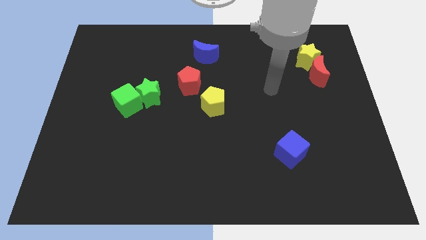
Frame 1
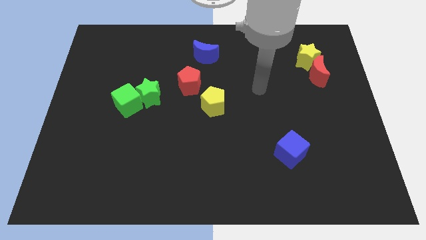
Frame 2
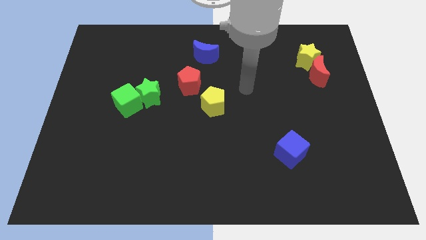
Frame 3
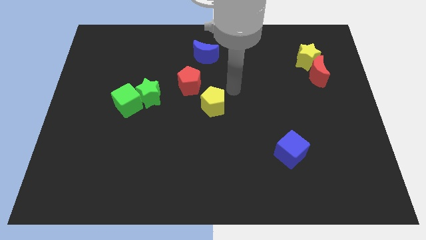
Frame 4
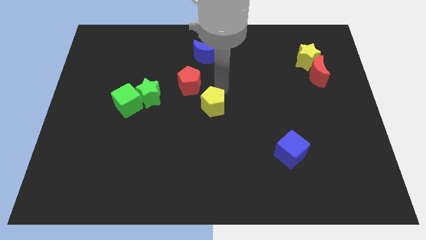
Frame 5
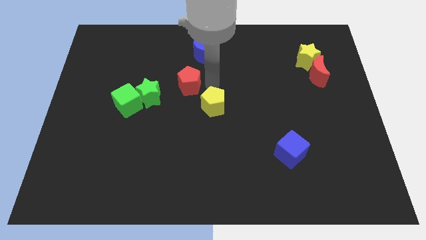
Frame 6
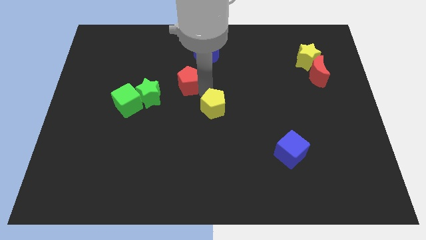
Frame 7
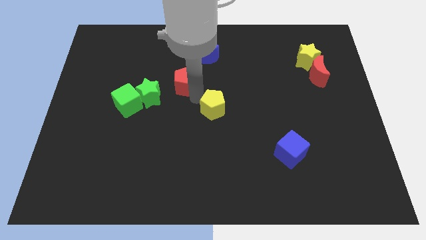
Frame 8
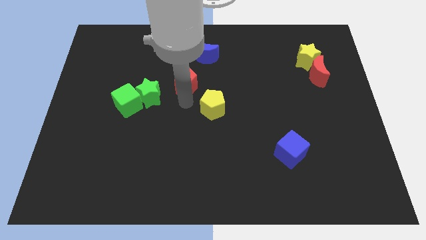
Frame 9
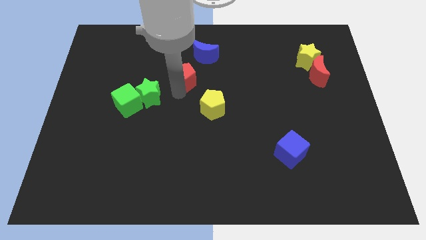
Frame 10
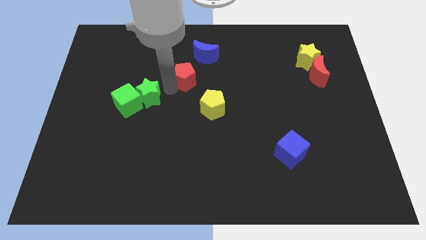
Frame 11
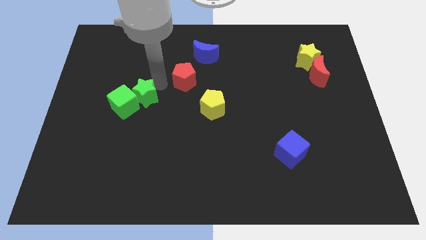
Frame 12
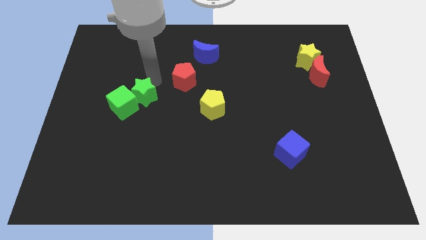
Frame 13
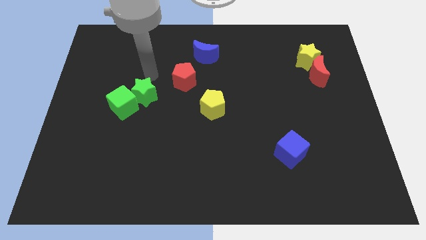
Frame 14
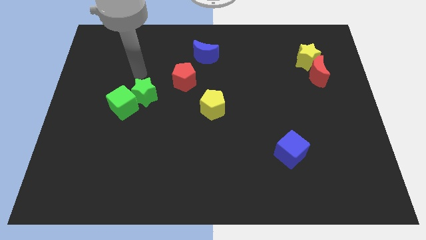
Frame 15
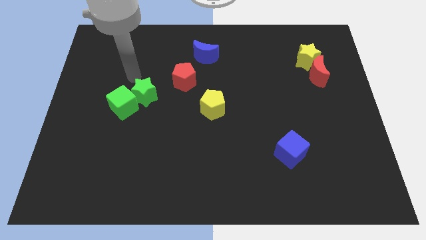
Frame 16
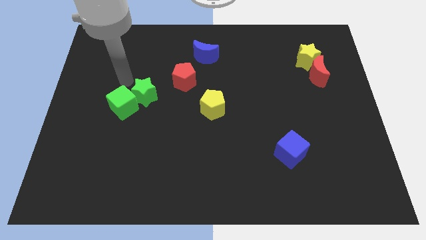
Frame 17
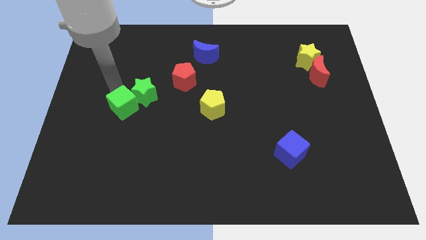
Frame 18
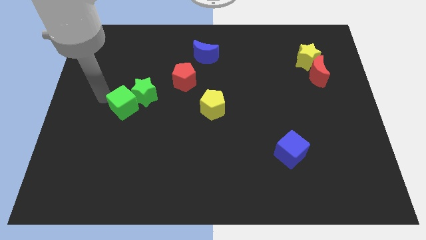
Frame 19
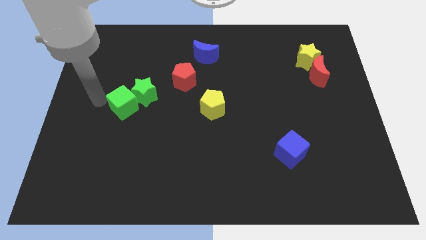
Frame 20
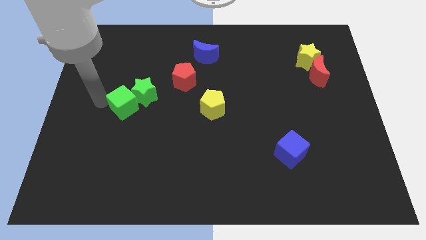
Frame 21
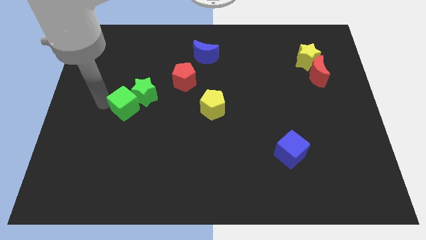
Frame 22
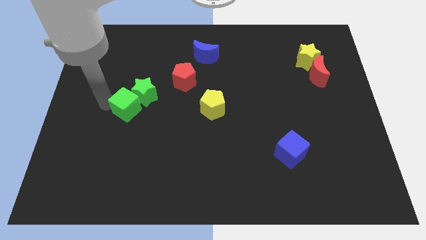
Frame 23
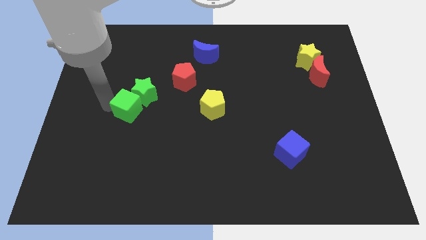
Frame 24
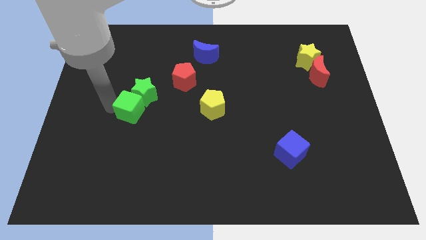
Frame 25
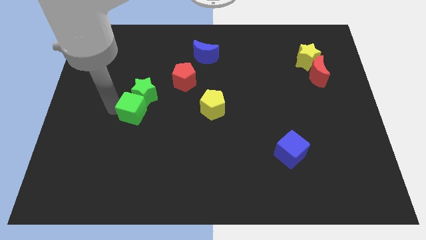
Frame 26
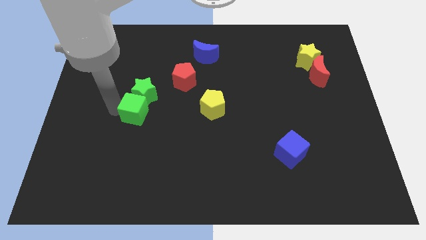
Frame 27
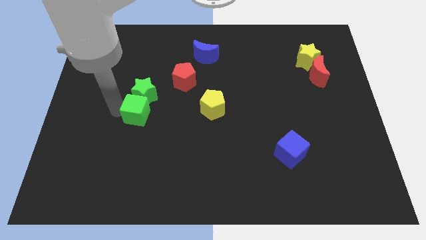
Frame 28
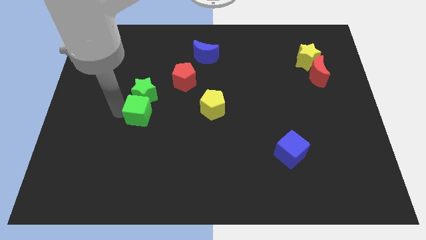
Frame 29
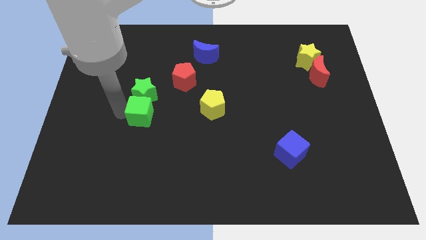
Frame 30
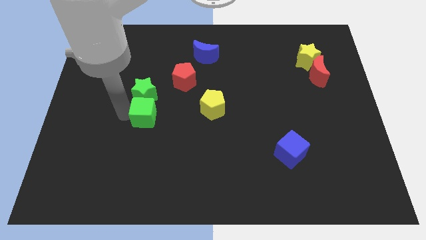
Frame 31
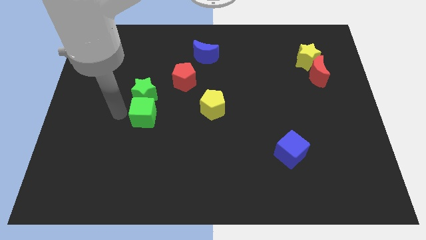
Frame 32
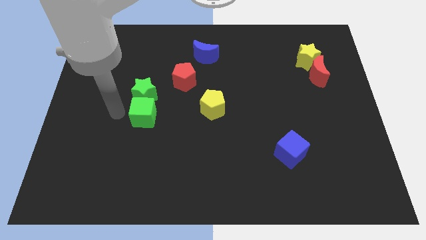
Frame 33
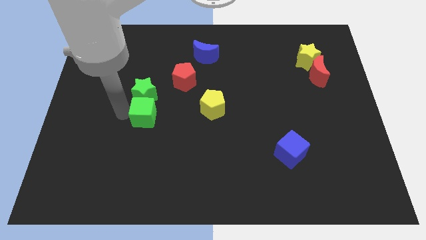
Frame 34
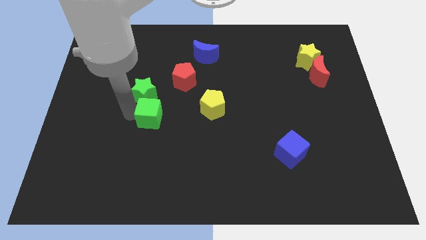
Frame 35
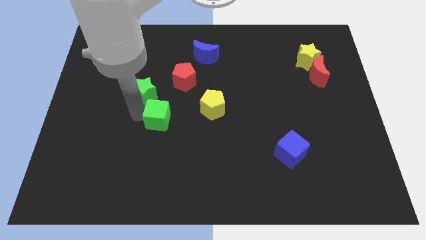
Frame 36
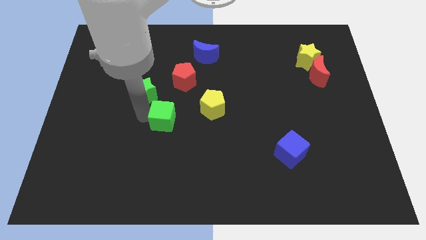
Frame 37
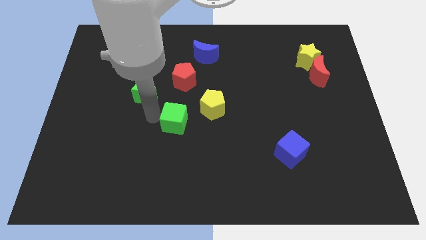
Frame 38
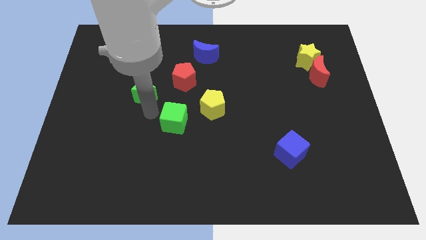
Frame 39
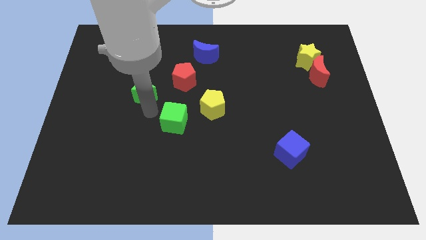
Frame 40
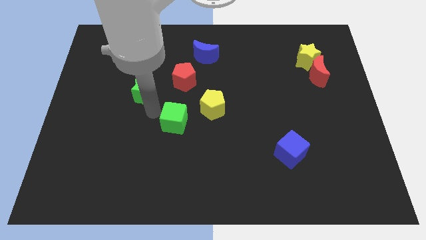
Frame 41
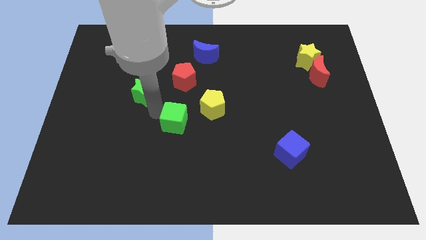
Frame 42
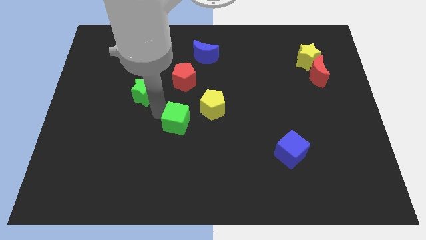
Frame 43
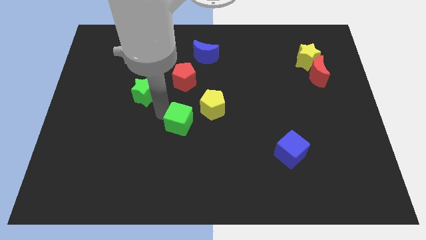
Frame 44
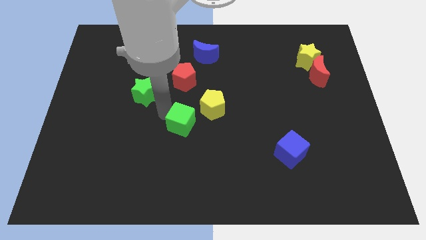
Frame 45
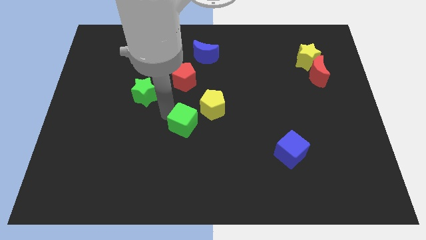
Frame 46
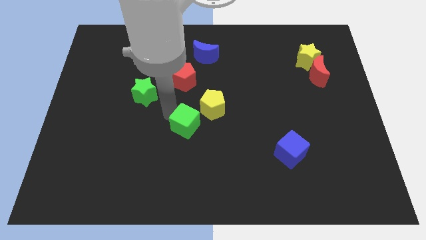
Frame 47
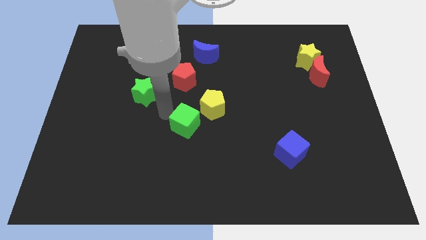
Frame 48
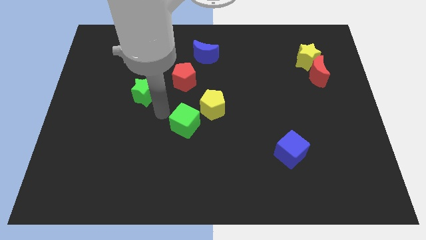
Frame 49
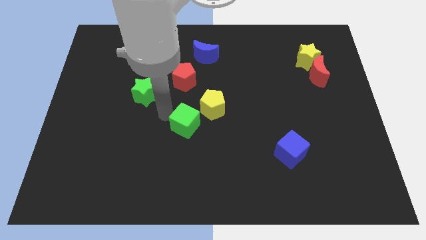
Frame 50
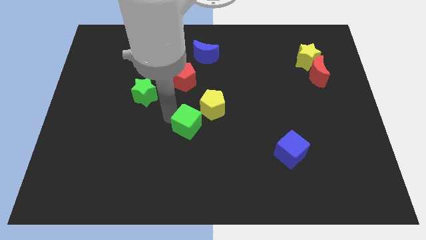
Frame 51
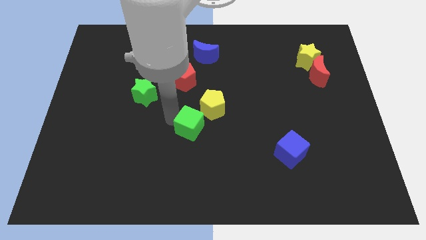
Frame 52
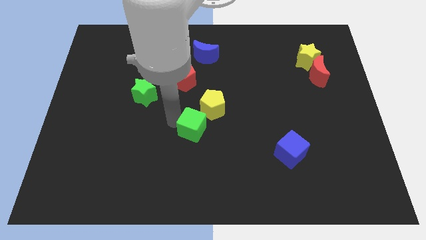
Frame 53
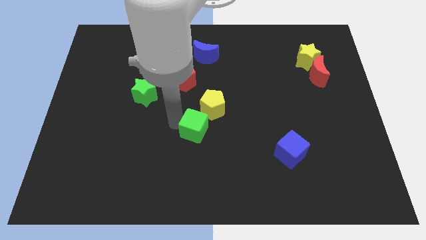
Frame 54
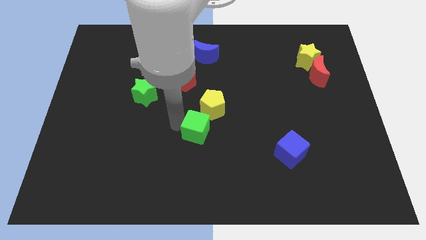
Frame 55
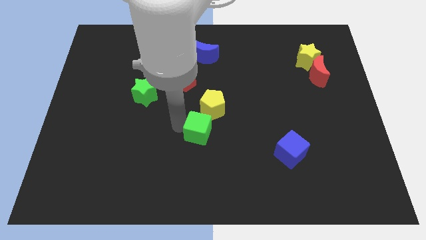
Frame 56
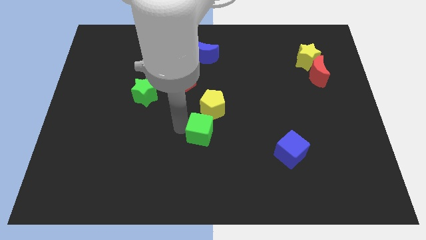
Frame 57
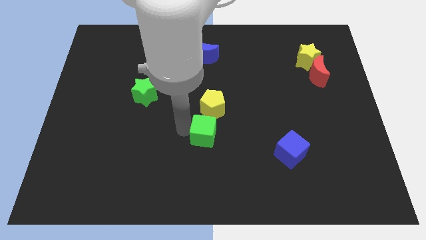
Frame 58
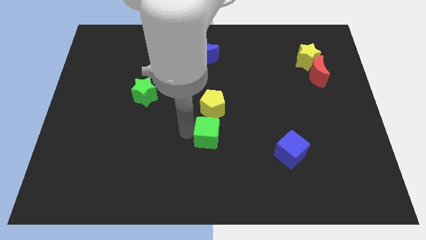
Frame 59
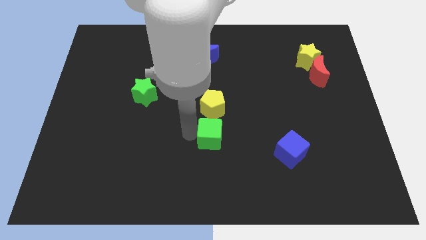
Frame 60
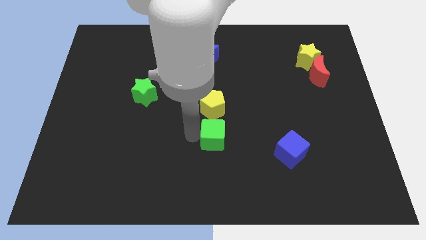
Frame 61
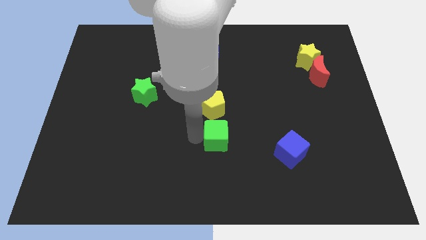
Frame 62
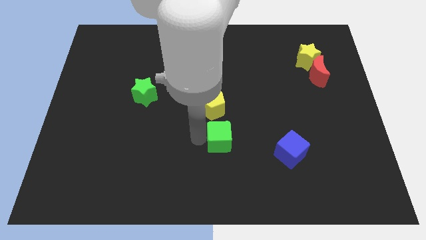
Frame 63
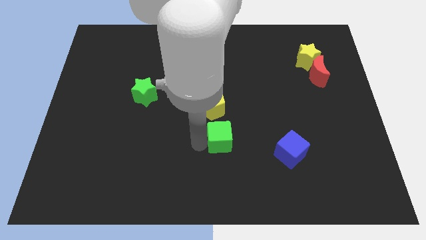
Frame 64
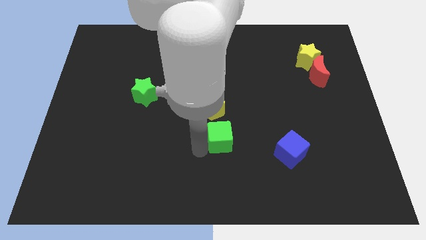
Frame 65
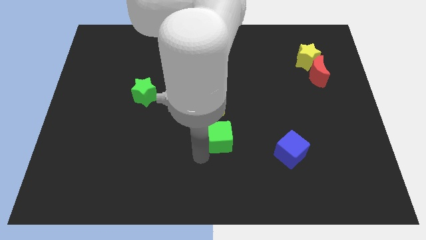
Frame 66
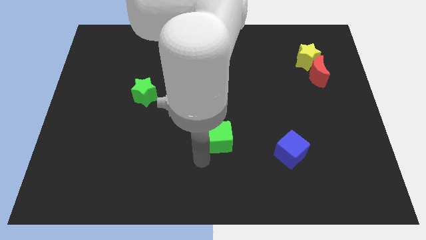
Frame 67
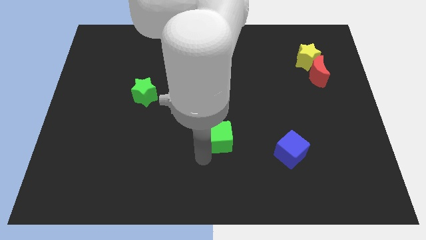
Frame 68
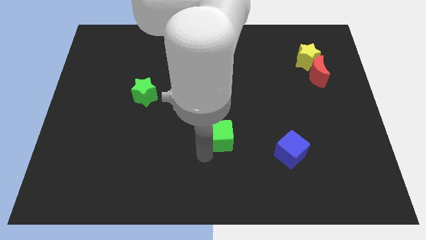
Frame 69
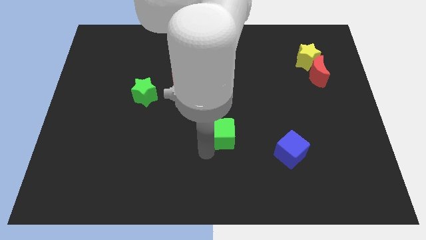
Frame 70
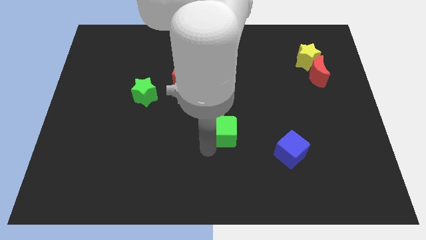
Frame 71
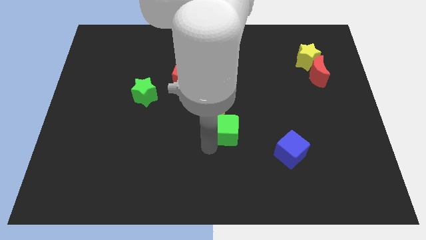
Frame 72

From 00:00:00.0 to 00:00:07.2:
slide the green cube to the right

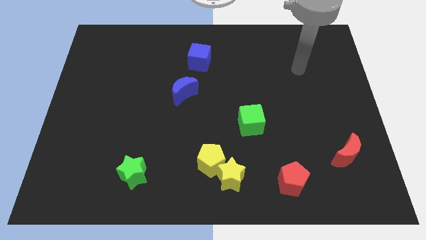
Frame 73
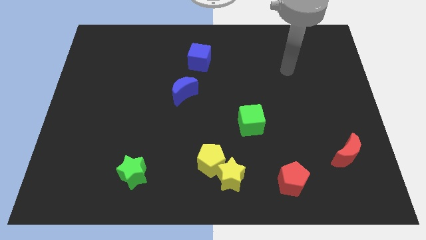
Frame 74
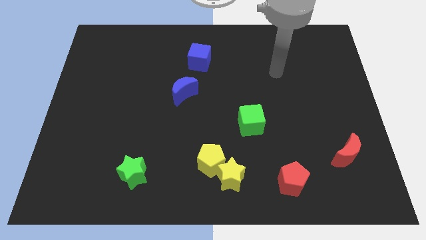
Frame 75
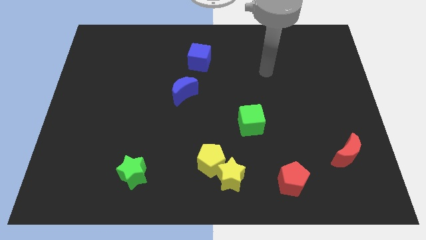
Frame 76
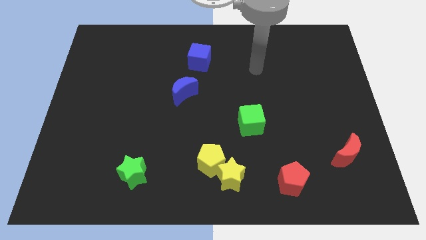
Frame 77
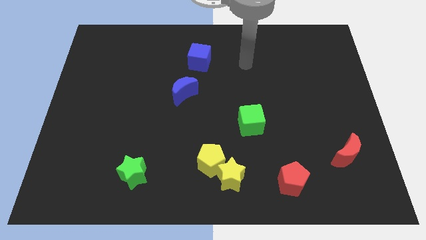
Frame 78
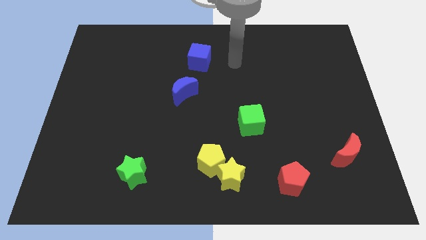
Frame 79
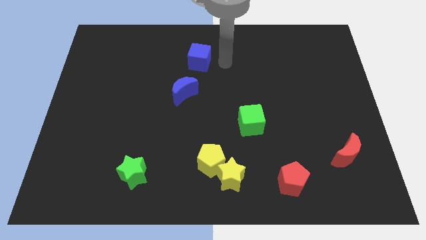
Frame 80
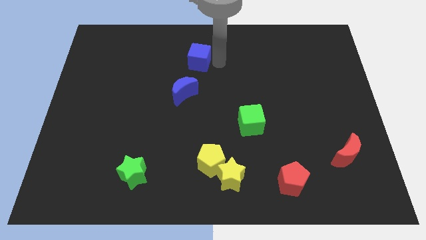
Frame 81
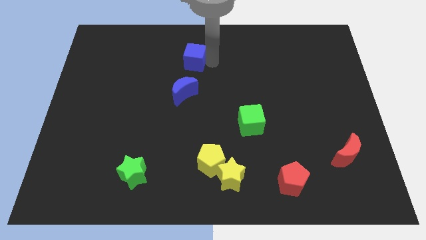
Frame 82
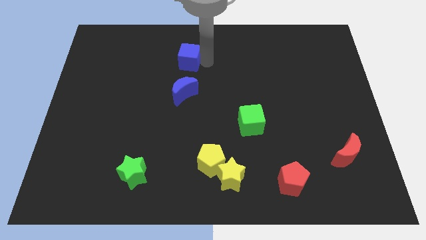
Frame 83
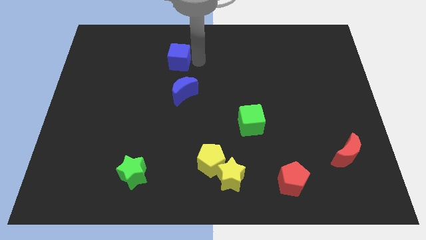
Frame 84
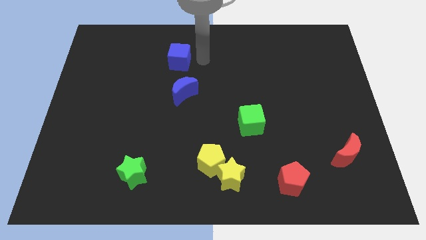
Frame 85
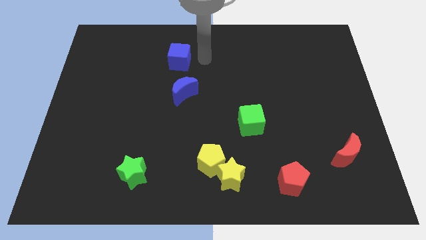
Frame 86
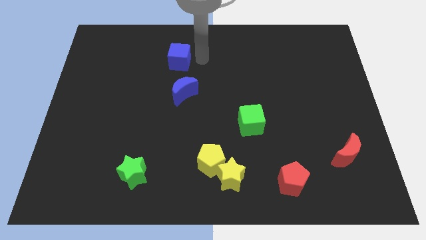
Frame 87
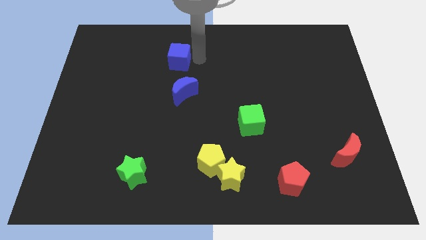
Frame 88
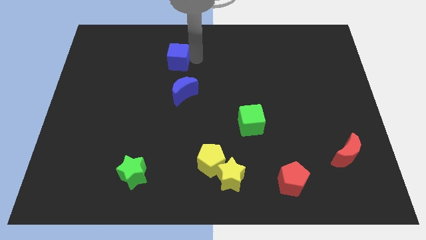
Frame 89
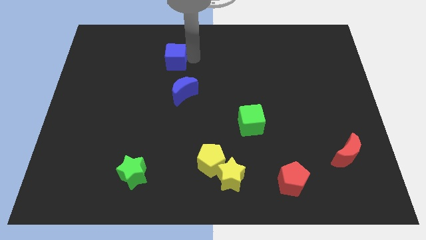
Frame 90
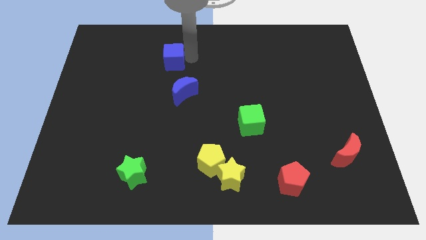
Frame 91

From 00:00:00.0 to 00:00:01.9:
push the blue cube slightly to the left
